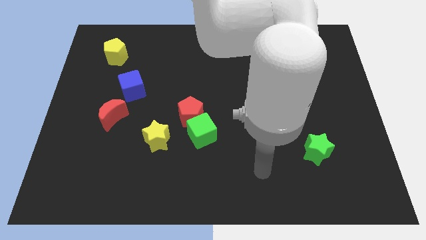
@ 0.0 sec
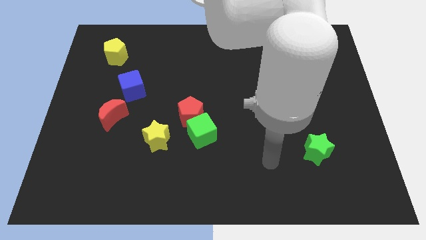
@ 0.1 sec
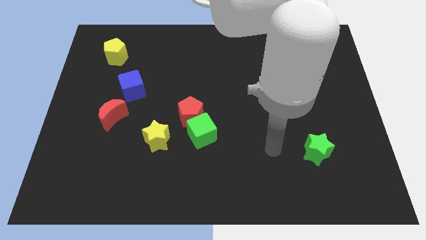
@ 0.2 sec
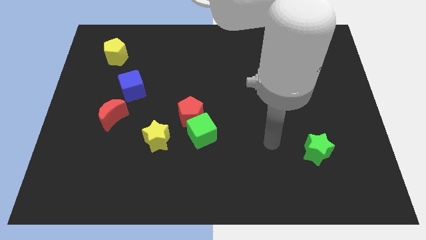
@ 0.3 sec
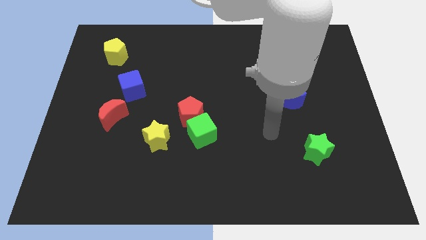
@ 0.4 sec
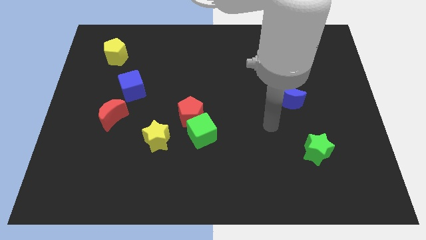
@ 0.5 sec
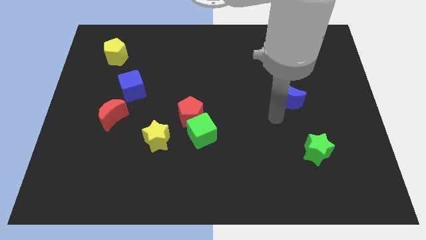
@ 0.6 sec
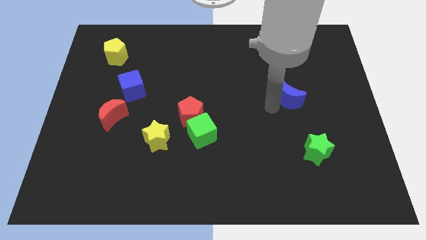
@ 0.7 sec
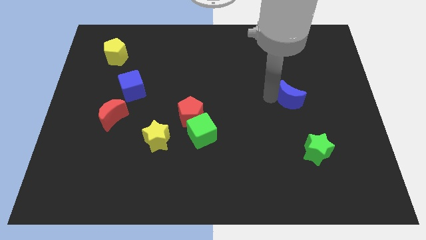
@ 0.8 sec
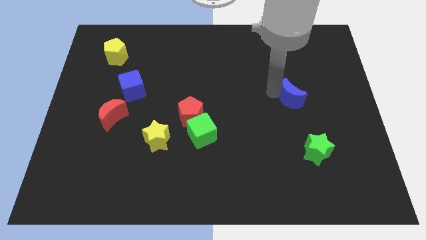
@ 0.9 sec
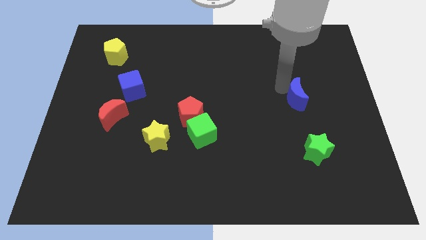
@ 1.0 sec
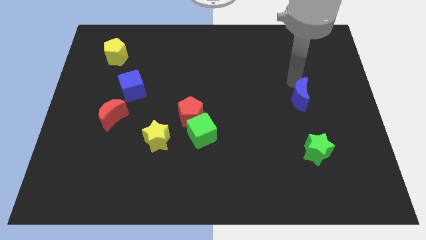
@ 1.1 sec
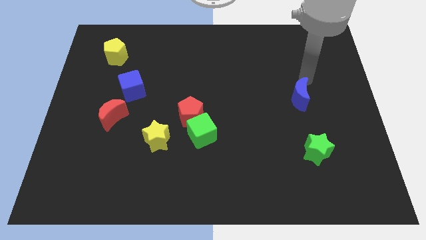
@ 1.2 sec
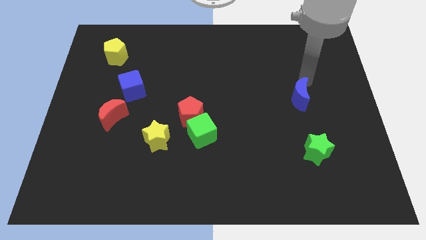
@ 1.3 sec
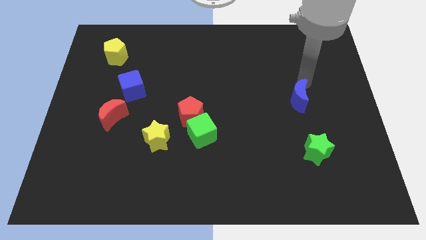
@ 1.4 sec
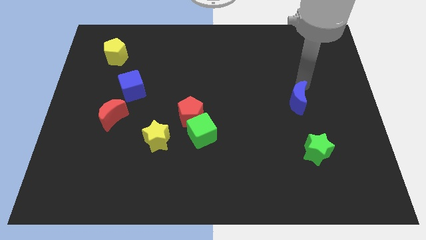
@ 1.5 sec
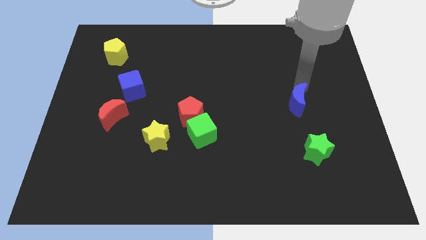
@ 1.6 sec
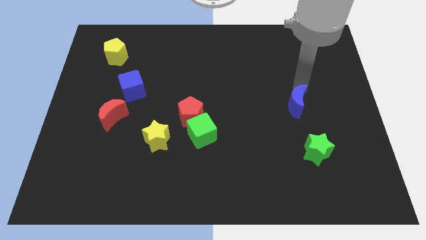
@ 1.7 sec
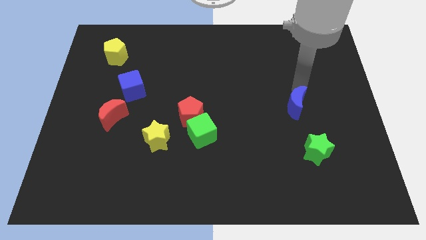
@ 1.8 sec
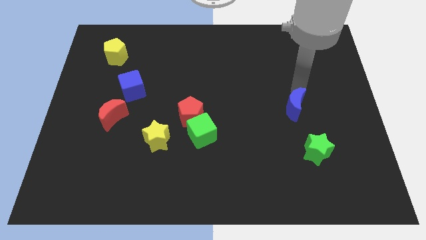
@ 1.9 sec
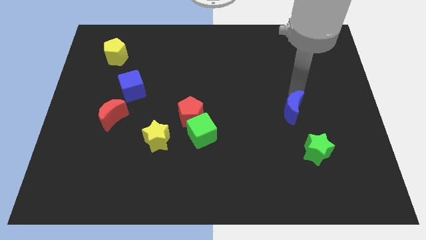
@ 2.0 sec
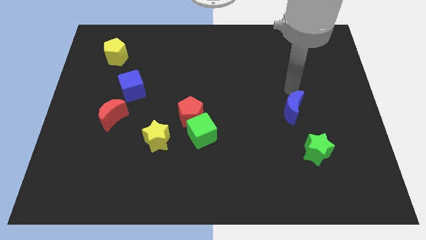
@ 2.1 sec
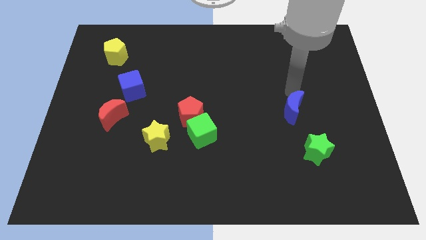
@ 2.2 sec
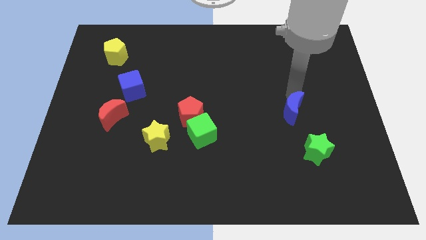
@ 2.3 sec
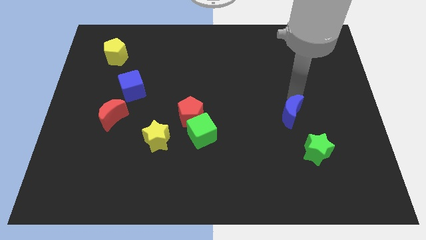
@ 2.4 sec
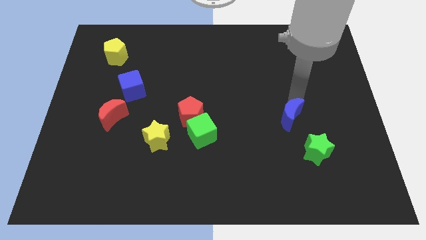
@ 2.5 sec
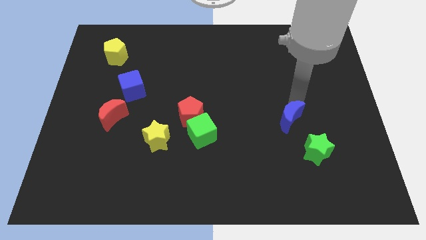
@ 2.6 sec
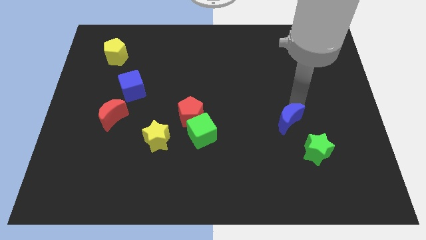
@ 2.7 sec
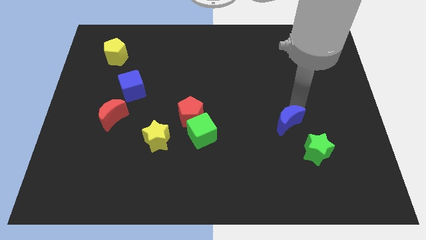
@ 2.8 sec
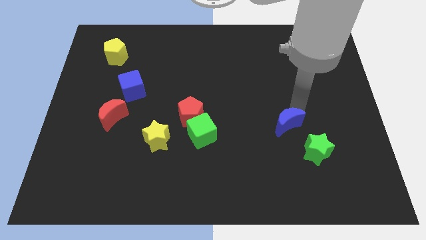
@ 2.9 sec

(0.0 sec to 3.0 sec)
slide the blue moon down slightly

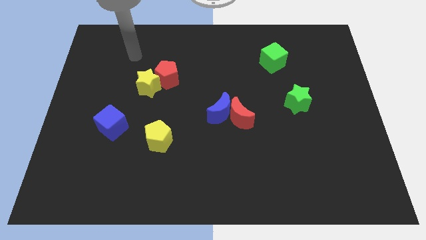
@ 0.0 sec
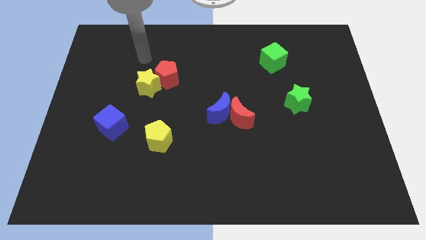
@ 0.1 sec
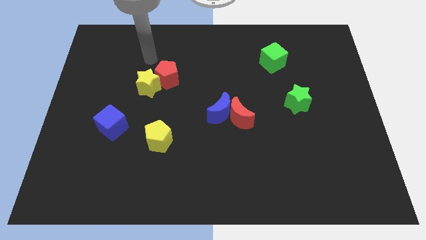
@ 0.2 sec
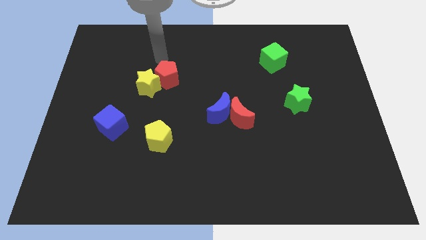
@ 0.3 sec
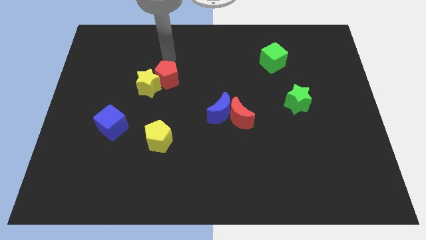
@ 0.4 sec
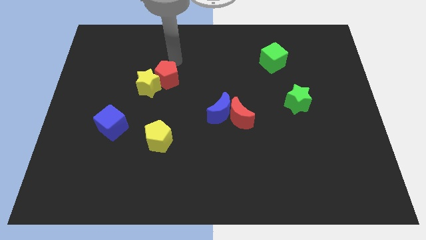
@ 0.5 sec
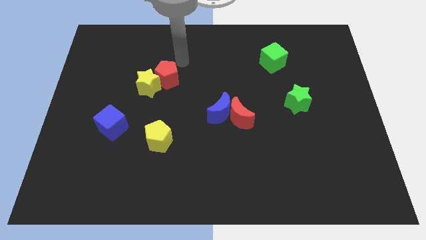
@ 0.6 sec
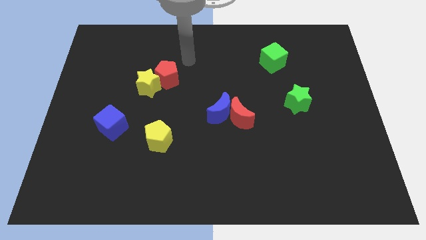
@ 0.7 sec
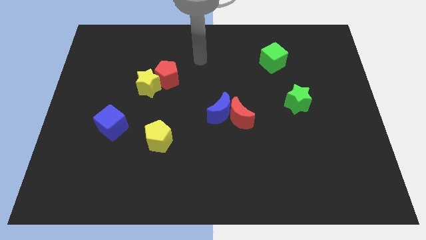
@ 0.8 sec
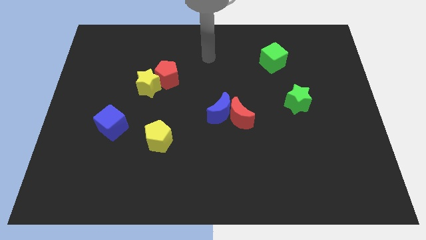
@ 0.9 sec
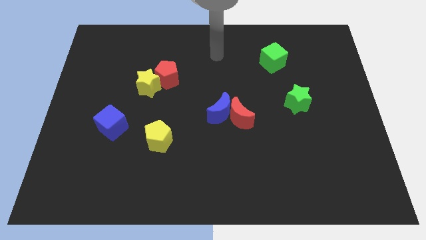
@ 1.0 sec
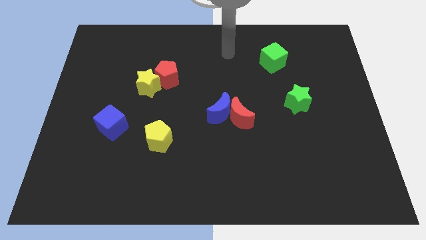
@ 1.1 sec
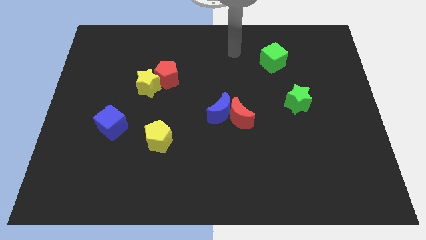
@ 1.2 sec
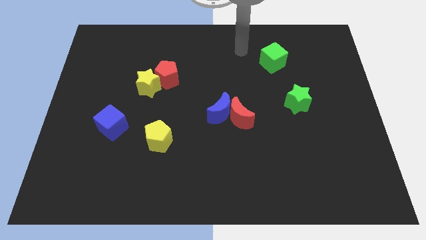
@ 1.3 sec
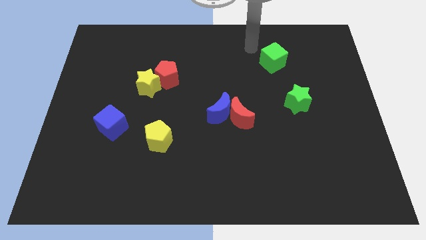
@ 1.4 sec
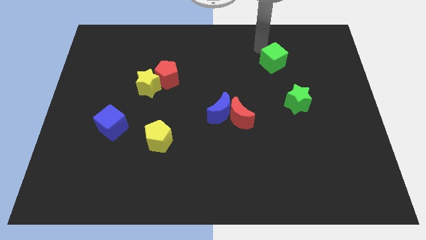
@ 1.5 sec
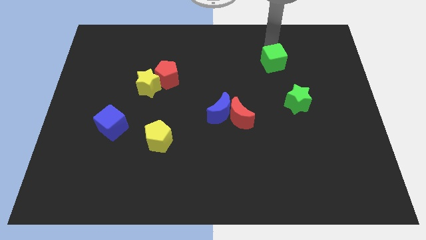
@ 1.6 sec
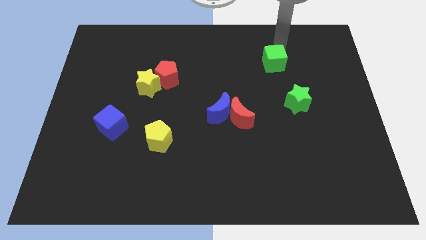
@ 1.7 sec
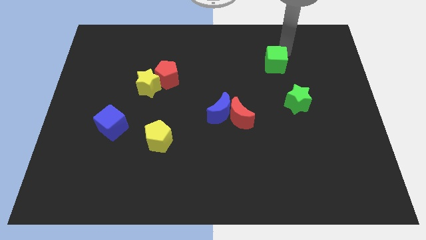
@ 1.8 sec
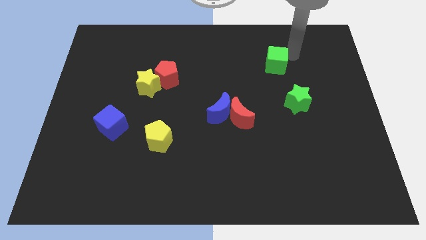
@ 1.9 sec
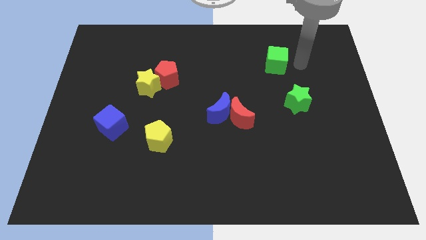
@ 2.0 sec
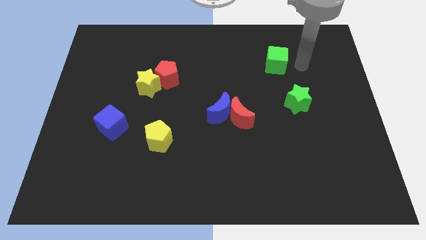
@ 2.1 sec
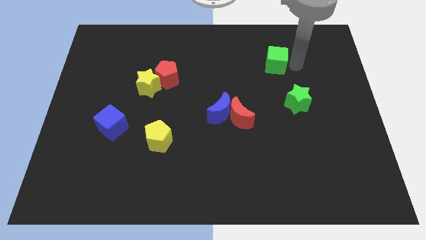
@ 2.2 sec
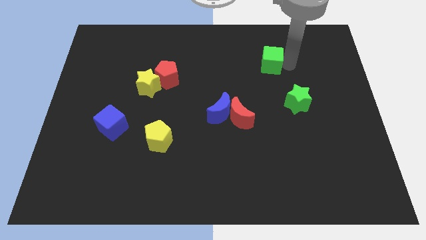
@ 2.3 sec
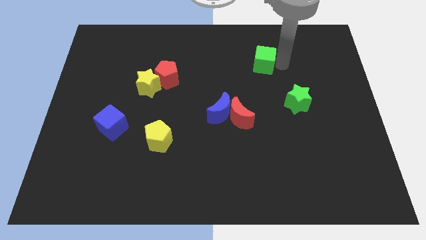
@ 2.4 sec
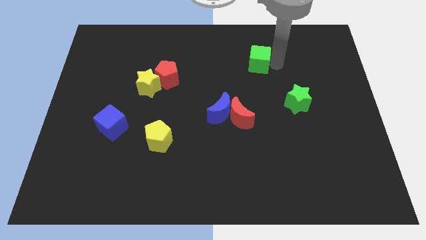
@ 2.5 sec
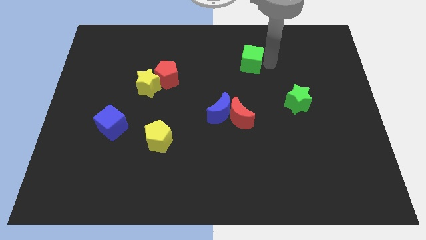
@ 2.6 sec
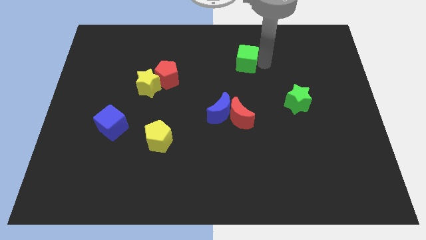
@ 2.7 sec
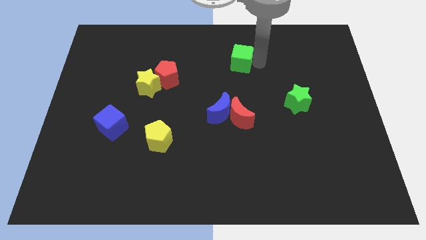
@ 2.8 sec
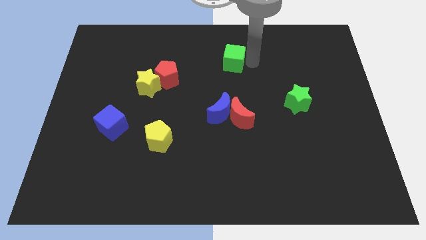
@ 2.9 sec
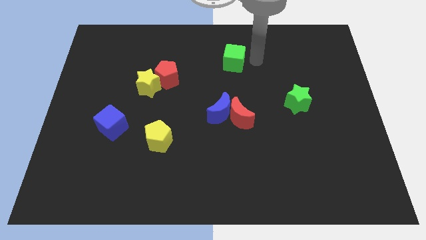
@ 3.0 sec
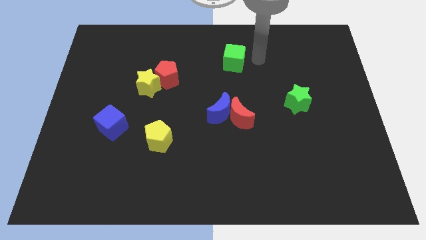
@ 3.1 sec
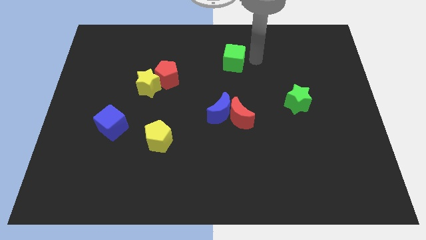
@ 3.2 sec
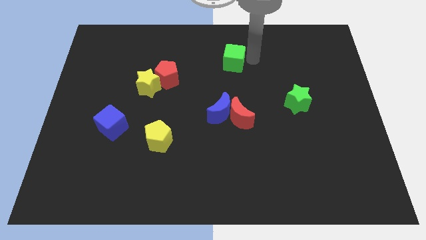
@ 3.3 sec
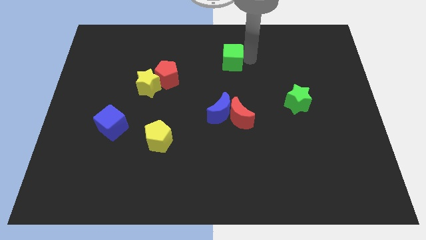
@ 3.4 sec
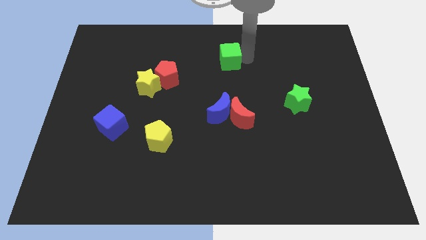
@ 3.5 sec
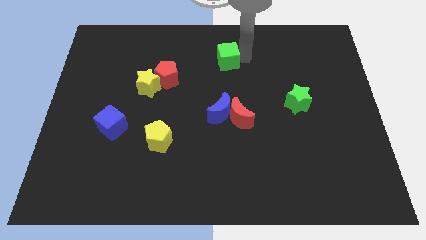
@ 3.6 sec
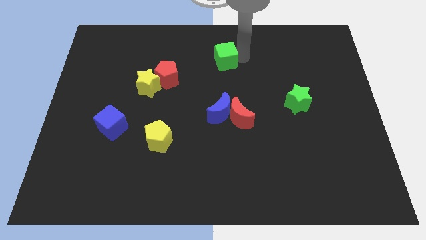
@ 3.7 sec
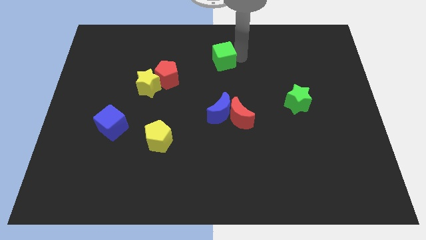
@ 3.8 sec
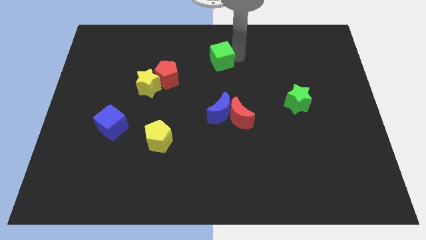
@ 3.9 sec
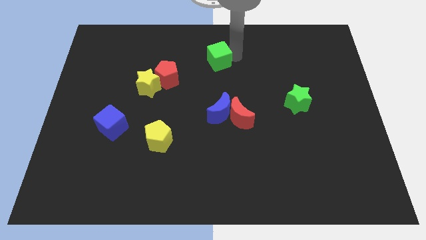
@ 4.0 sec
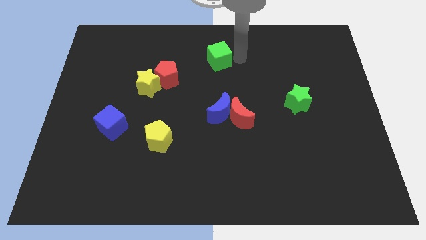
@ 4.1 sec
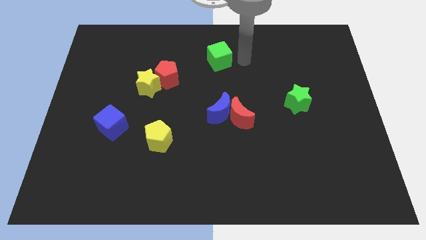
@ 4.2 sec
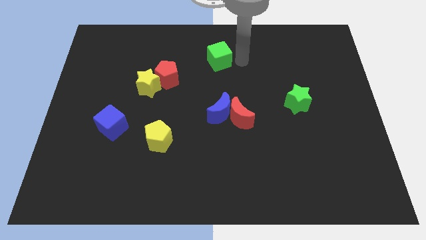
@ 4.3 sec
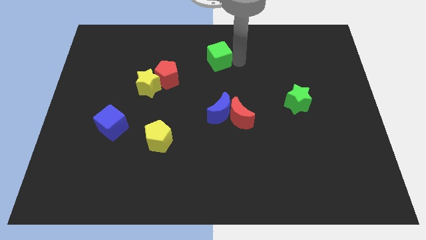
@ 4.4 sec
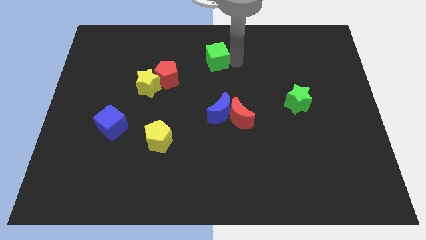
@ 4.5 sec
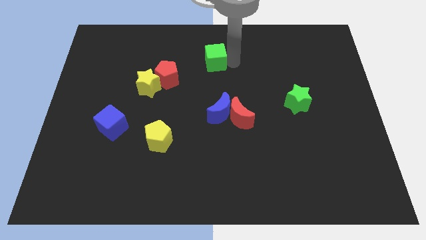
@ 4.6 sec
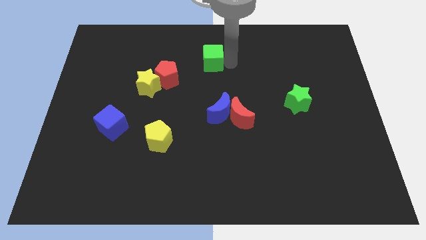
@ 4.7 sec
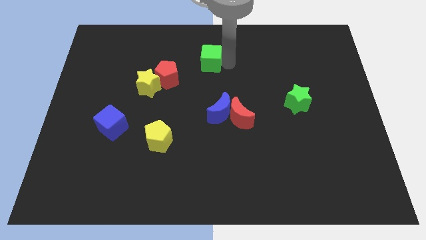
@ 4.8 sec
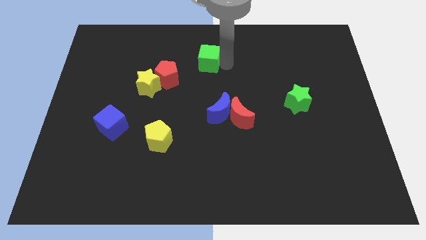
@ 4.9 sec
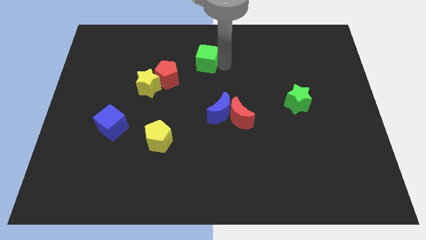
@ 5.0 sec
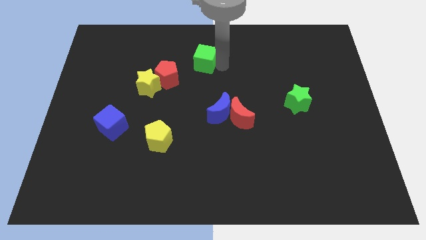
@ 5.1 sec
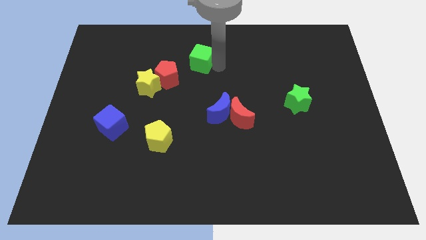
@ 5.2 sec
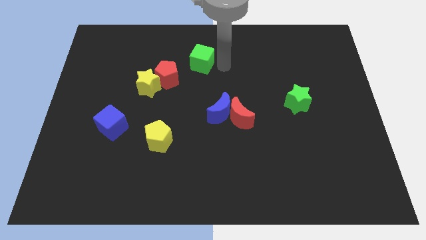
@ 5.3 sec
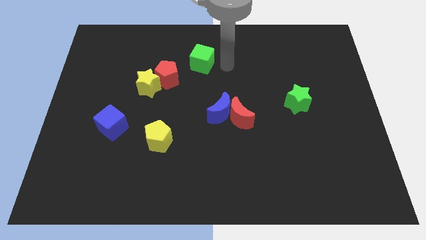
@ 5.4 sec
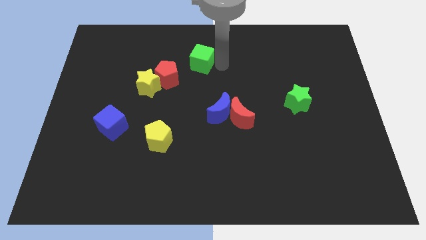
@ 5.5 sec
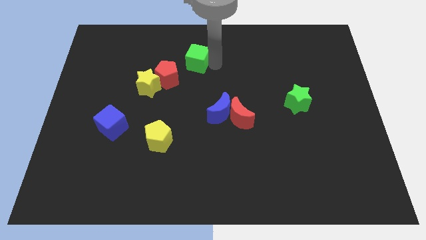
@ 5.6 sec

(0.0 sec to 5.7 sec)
move the green cube to the left
